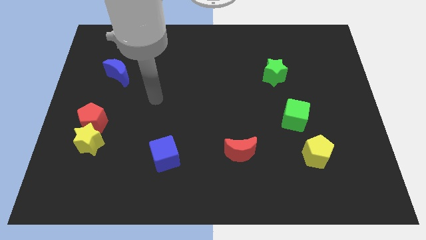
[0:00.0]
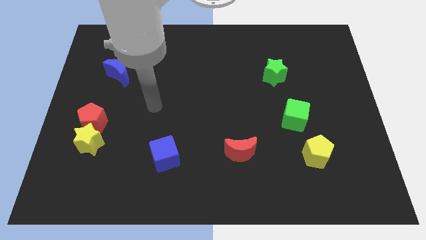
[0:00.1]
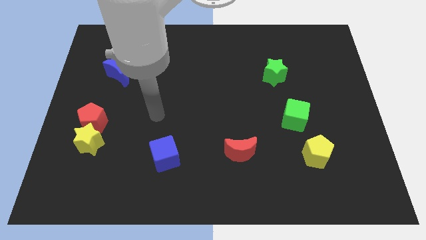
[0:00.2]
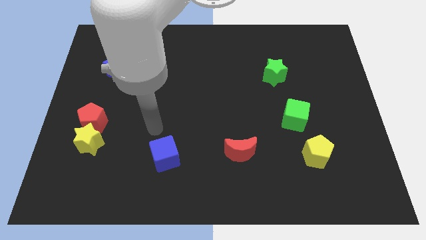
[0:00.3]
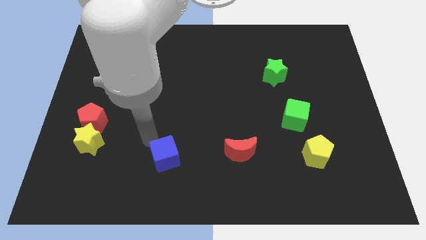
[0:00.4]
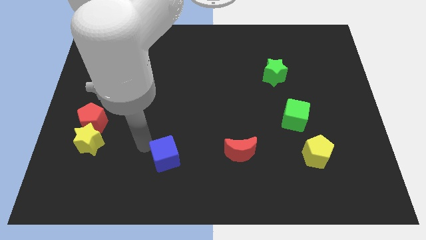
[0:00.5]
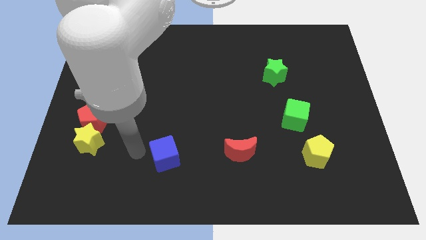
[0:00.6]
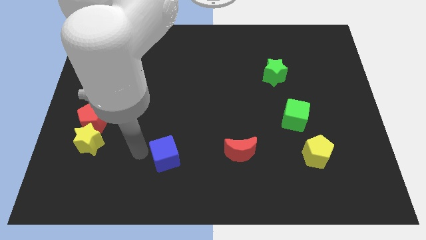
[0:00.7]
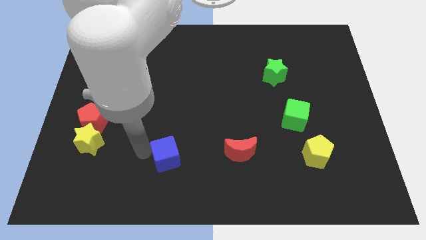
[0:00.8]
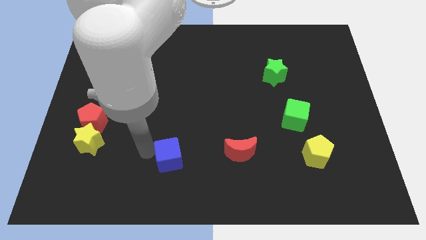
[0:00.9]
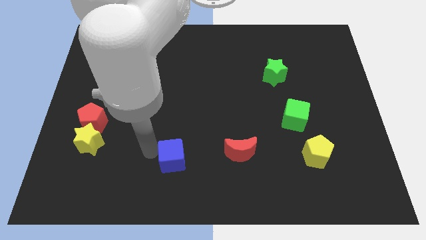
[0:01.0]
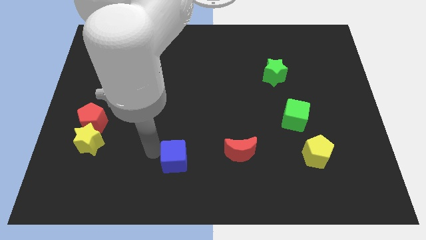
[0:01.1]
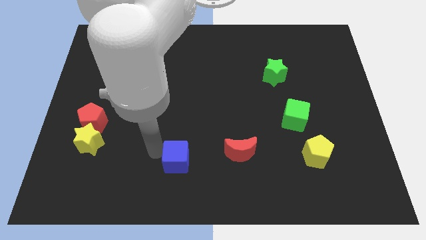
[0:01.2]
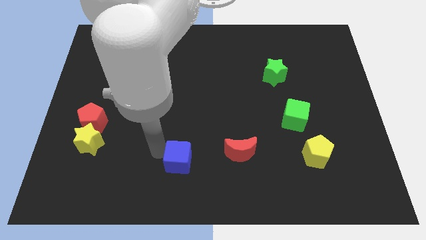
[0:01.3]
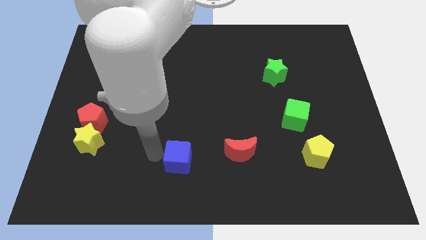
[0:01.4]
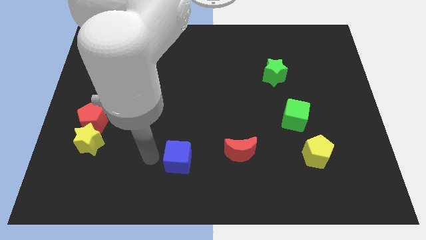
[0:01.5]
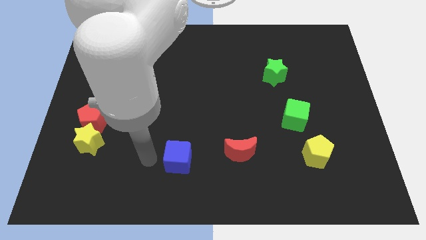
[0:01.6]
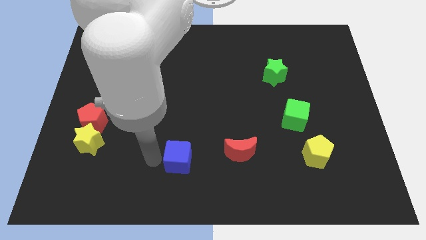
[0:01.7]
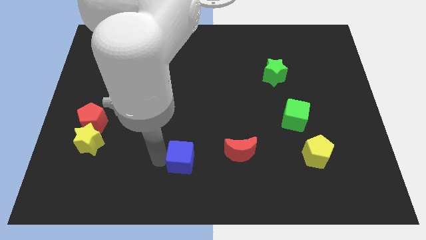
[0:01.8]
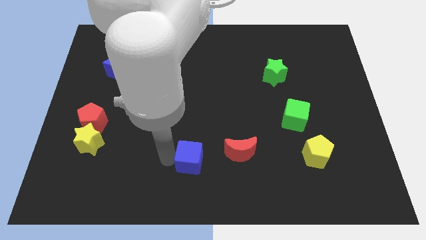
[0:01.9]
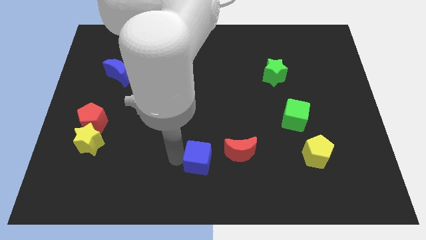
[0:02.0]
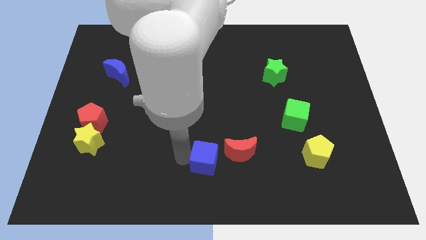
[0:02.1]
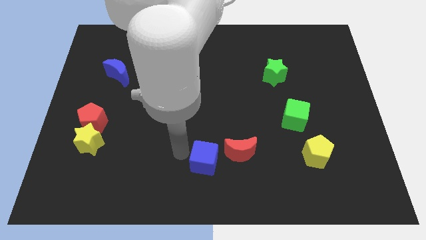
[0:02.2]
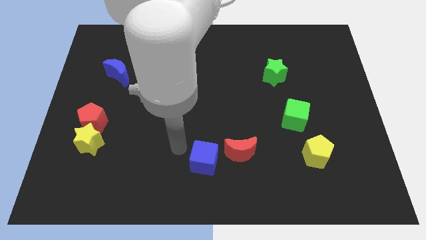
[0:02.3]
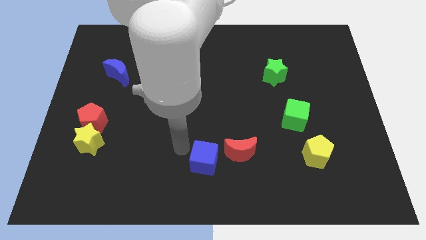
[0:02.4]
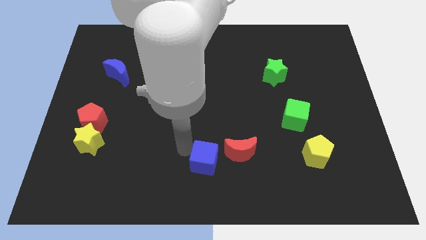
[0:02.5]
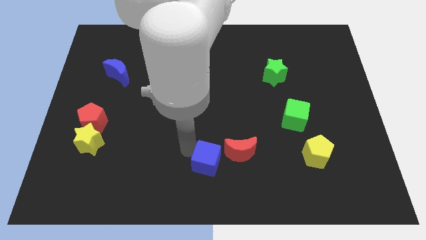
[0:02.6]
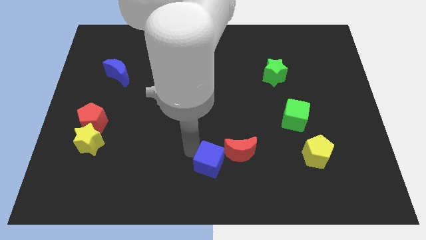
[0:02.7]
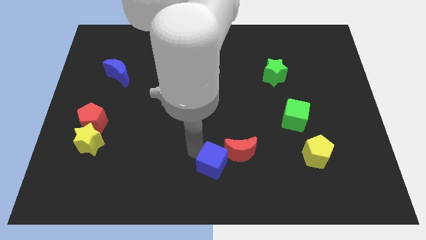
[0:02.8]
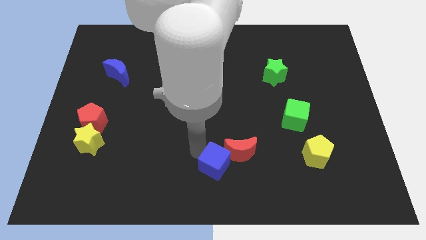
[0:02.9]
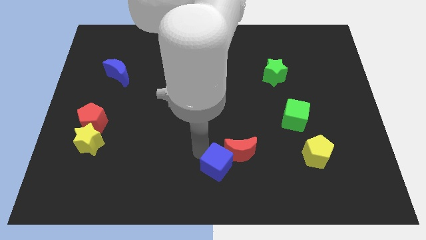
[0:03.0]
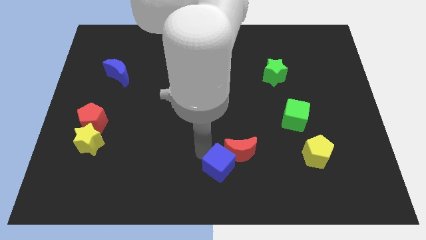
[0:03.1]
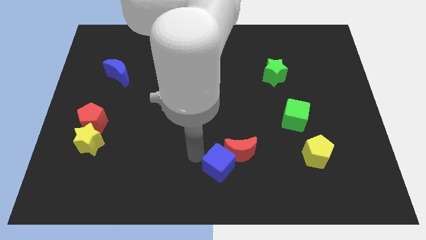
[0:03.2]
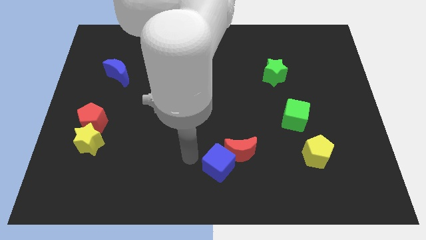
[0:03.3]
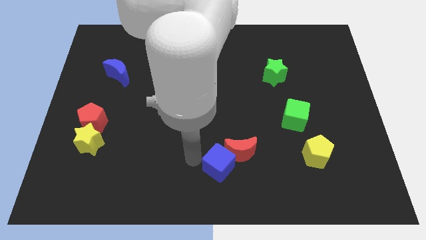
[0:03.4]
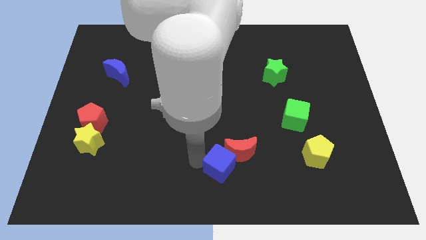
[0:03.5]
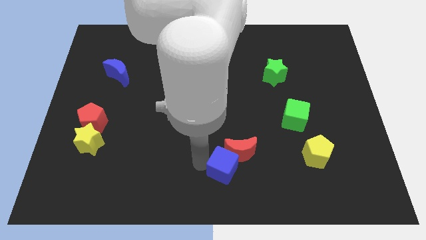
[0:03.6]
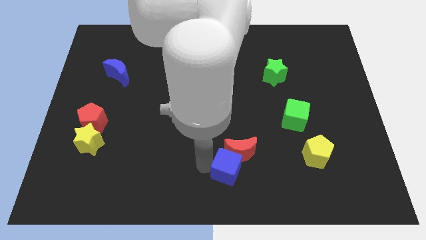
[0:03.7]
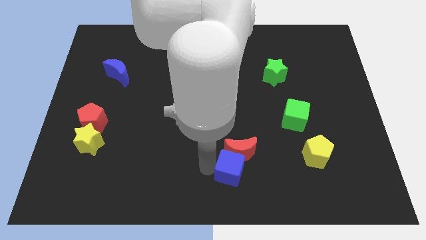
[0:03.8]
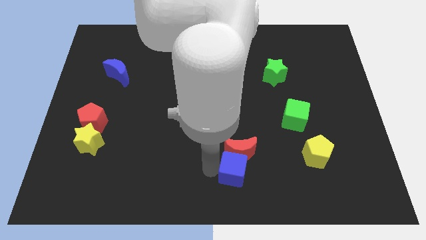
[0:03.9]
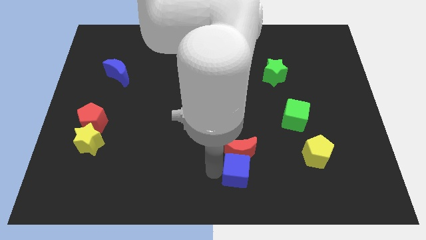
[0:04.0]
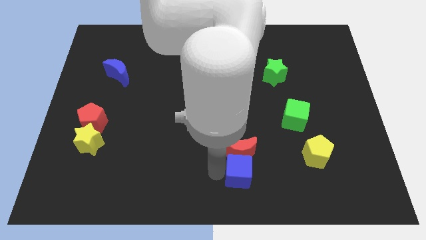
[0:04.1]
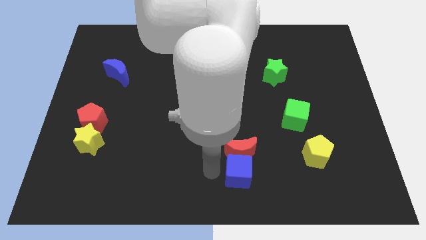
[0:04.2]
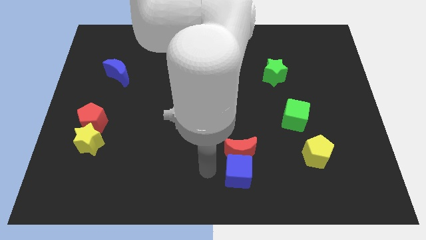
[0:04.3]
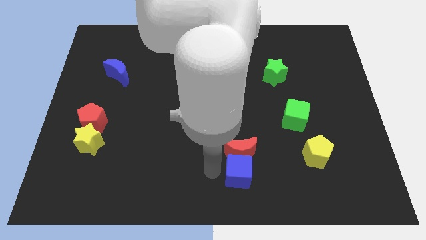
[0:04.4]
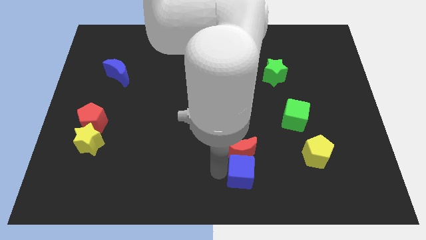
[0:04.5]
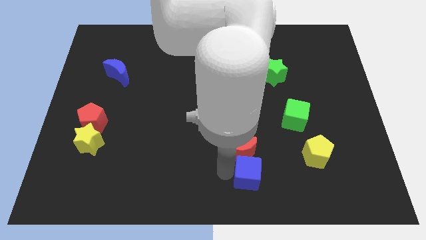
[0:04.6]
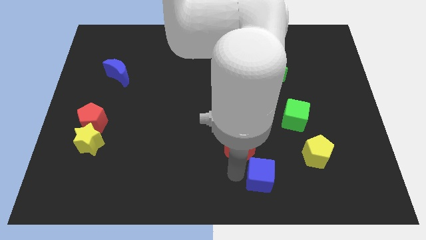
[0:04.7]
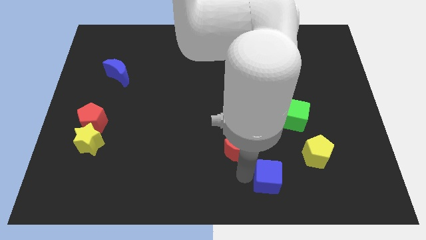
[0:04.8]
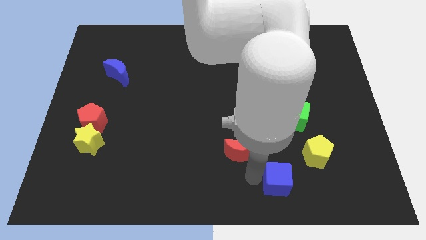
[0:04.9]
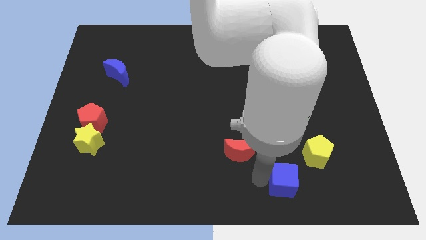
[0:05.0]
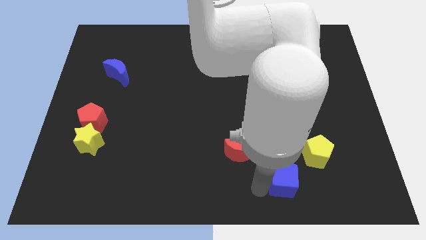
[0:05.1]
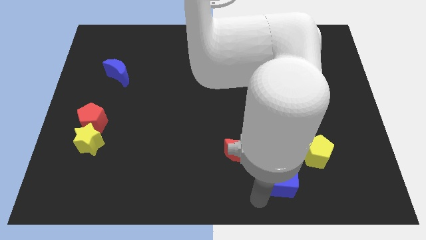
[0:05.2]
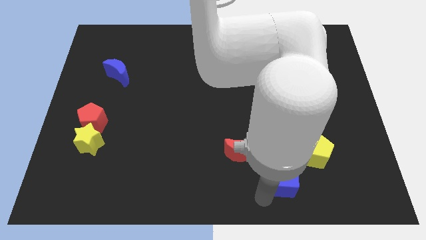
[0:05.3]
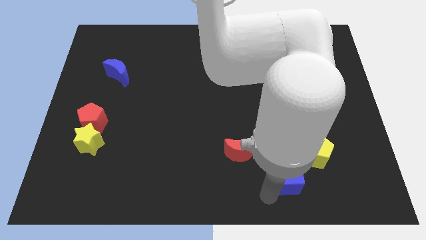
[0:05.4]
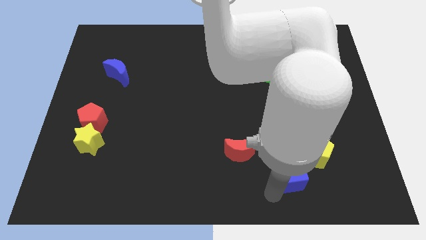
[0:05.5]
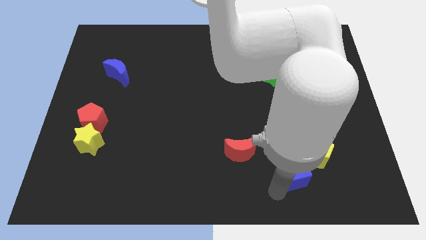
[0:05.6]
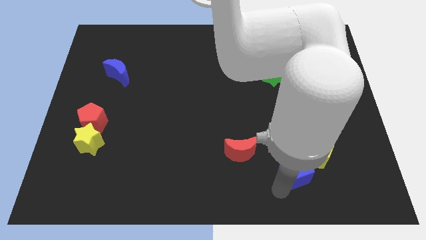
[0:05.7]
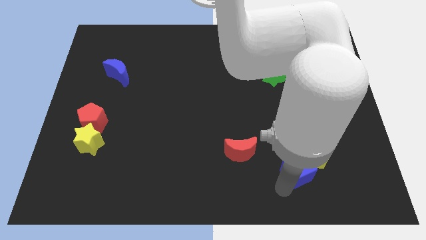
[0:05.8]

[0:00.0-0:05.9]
slide the blue cube next to the yellow pentagon

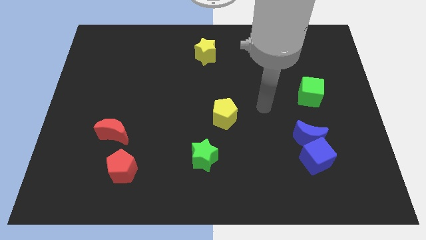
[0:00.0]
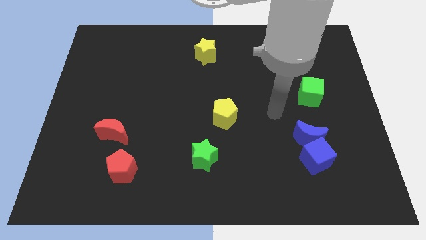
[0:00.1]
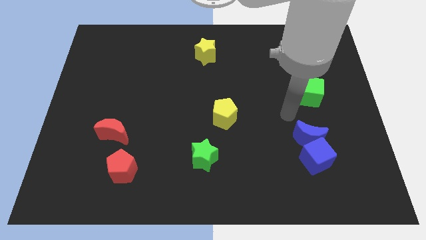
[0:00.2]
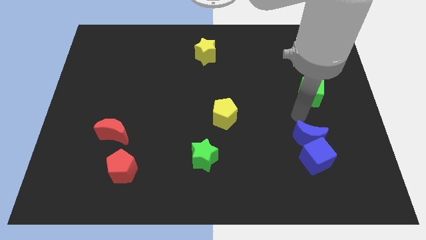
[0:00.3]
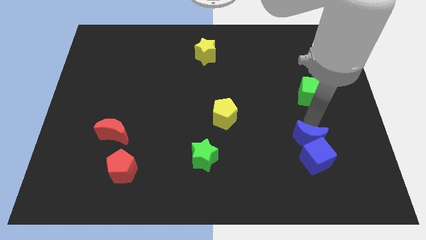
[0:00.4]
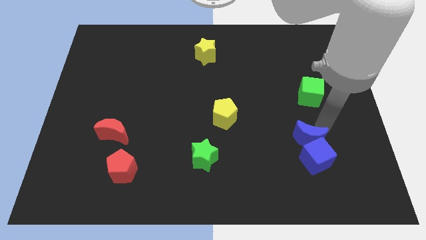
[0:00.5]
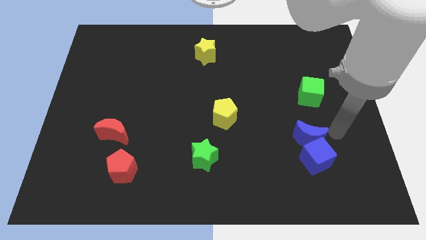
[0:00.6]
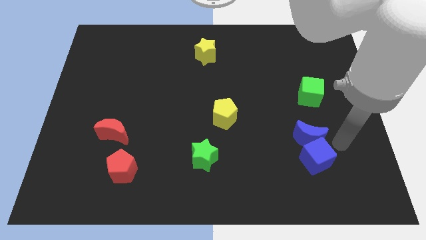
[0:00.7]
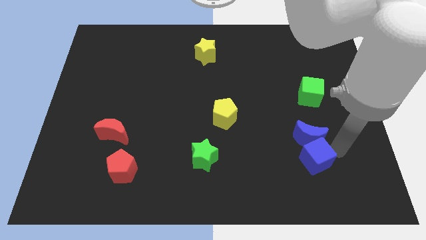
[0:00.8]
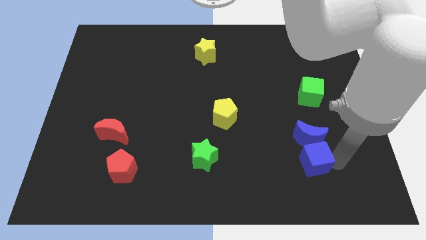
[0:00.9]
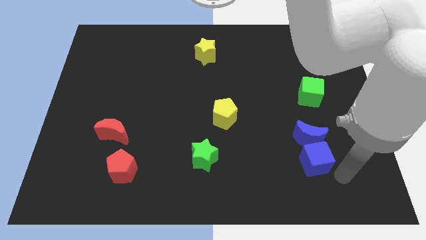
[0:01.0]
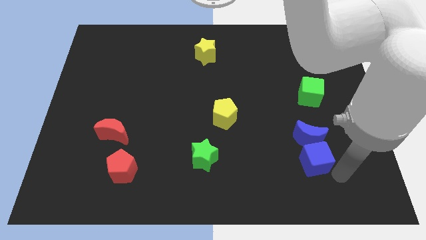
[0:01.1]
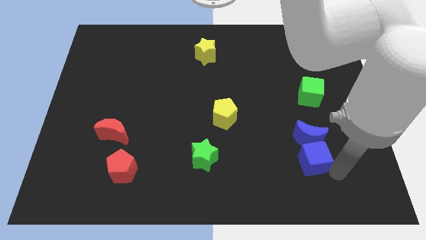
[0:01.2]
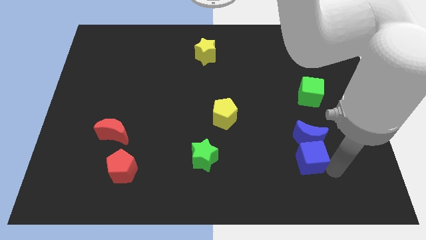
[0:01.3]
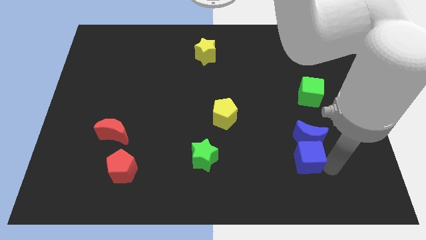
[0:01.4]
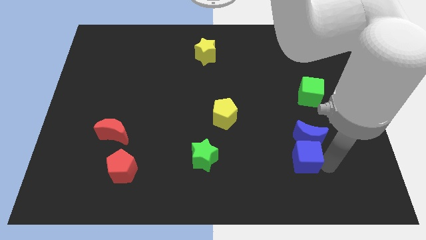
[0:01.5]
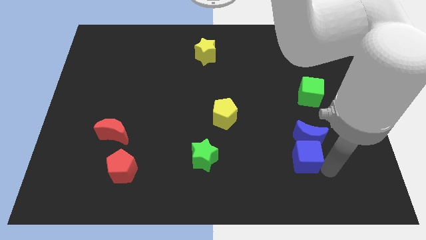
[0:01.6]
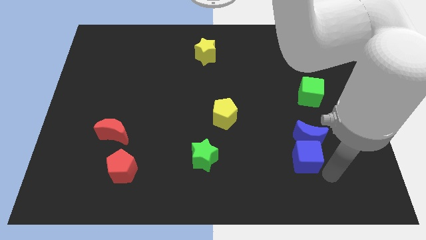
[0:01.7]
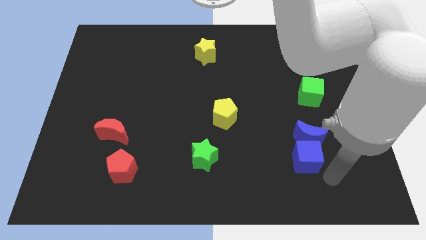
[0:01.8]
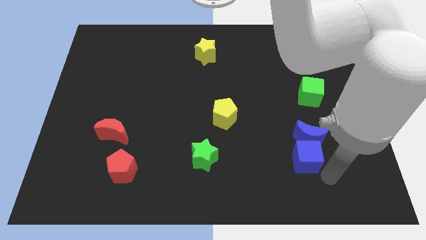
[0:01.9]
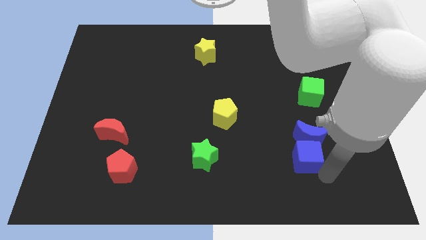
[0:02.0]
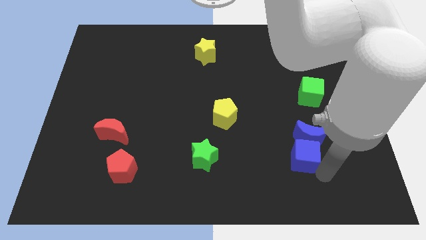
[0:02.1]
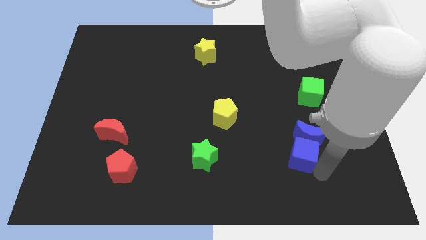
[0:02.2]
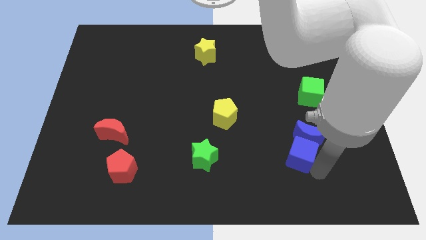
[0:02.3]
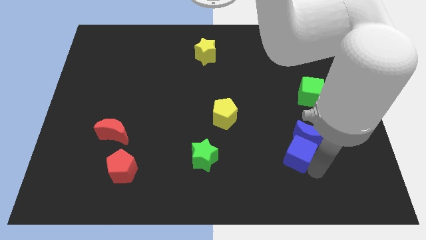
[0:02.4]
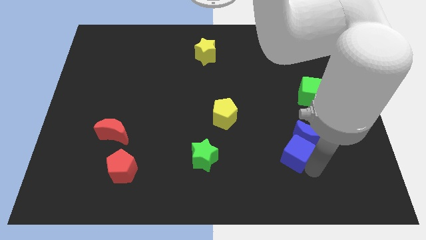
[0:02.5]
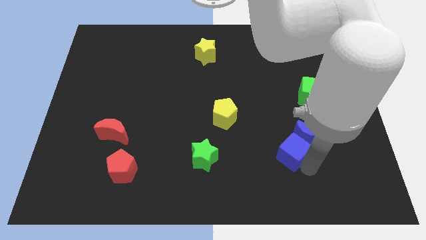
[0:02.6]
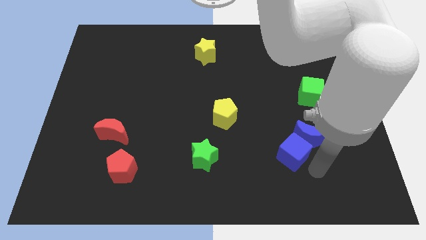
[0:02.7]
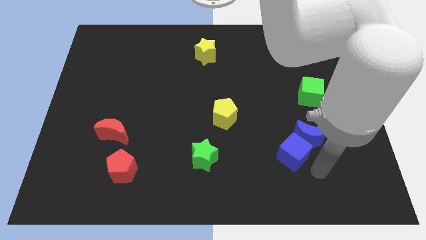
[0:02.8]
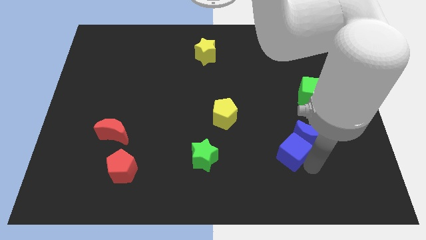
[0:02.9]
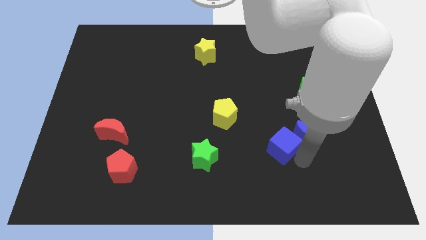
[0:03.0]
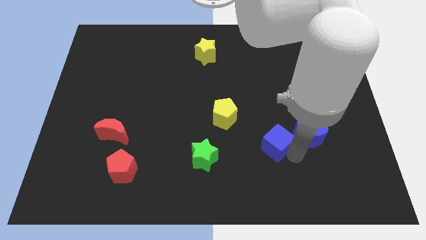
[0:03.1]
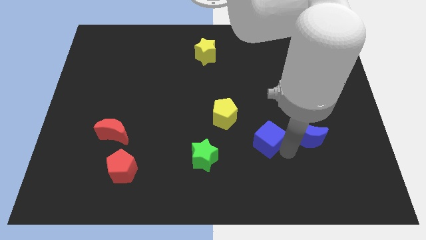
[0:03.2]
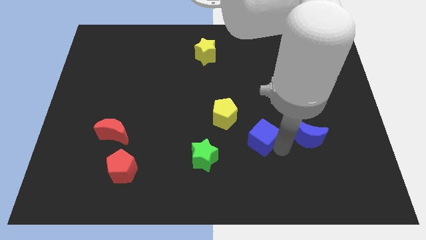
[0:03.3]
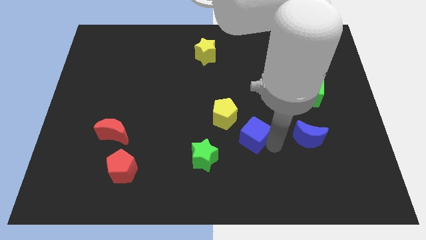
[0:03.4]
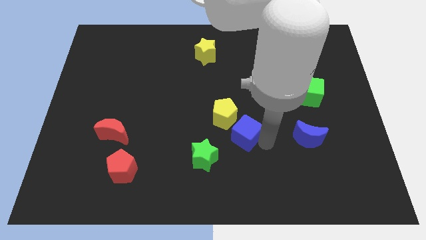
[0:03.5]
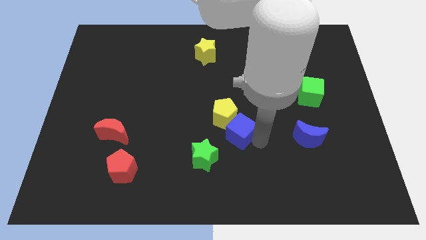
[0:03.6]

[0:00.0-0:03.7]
put the blue cube next to the yellow pentagon
